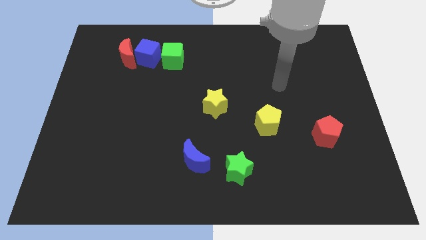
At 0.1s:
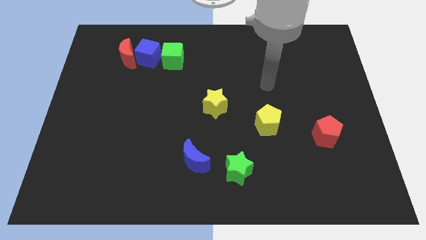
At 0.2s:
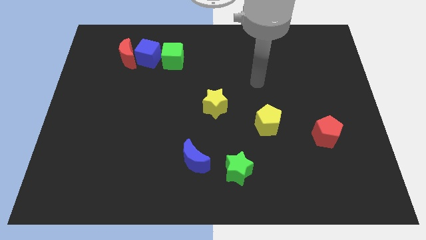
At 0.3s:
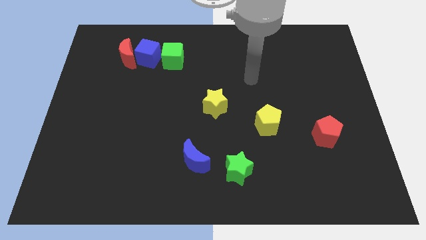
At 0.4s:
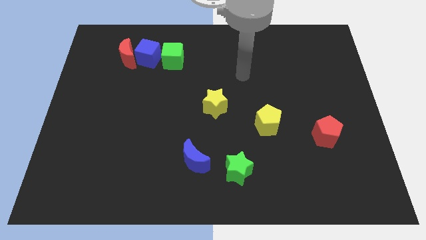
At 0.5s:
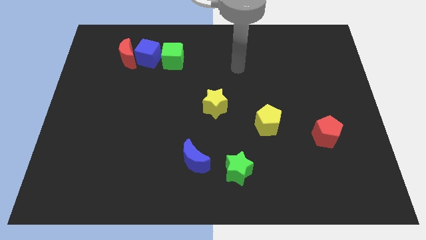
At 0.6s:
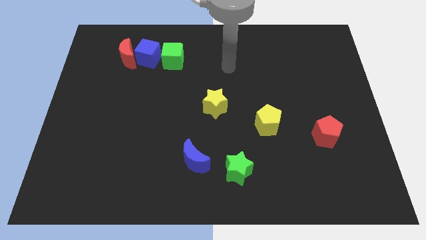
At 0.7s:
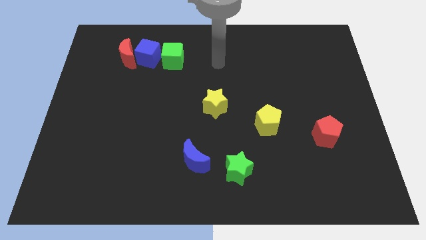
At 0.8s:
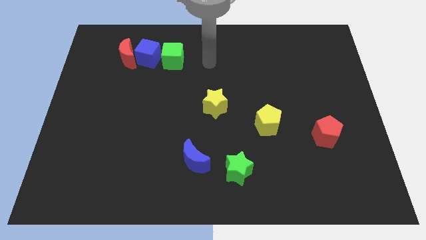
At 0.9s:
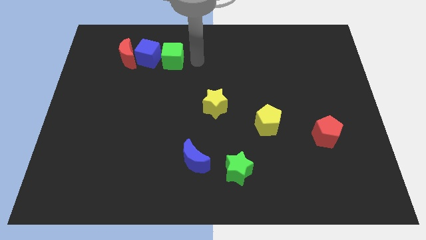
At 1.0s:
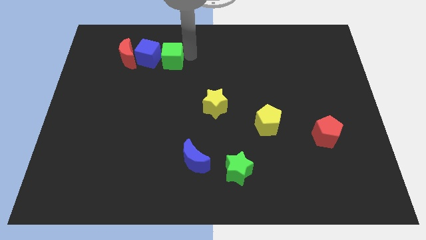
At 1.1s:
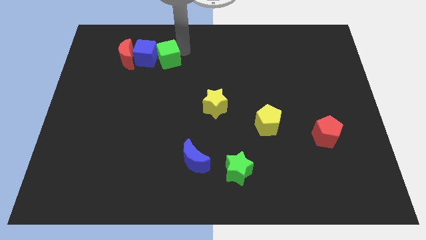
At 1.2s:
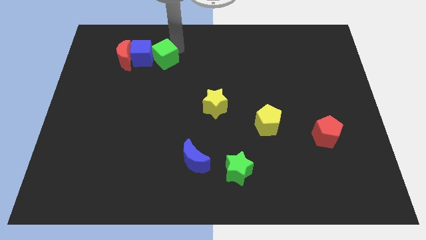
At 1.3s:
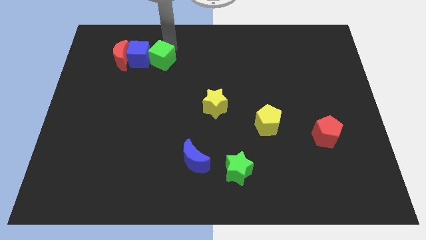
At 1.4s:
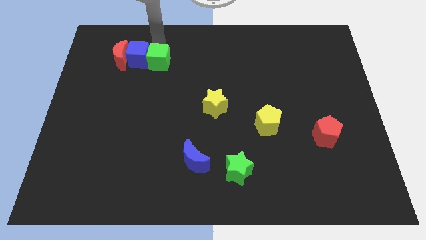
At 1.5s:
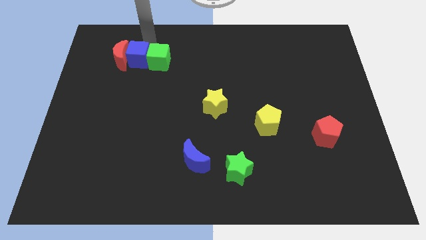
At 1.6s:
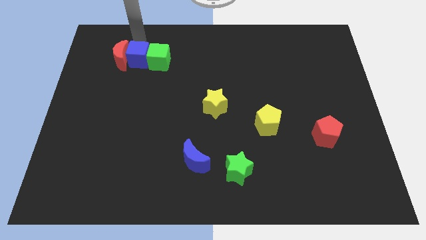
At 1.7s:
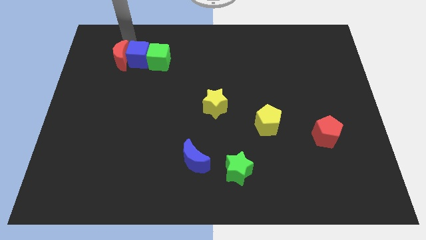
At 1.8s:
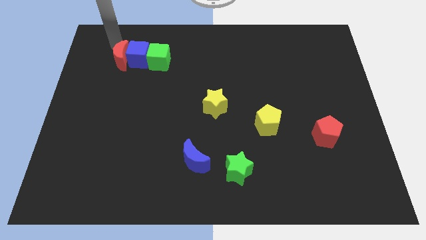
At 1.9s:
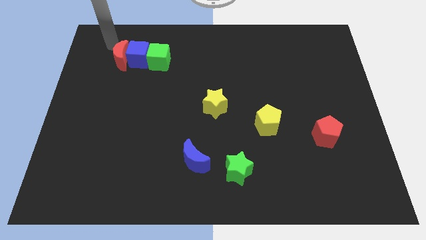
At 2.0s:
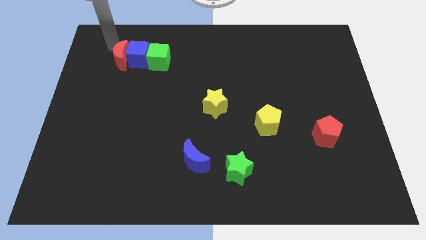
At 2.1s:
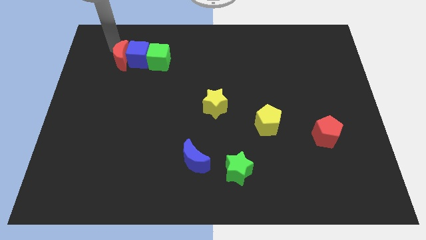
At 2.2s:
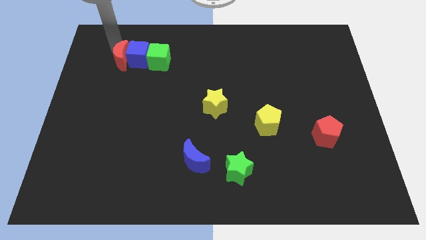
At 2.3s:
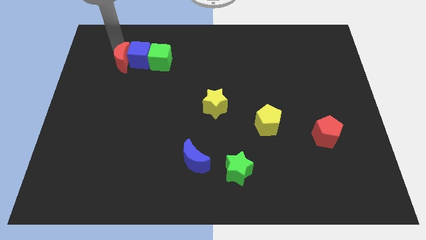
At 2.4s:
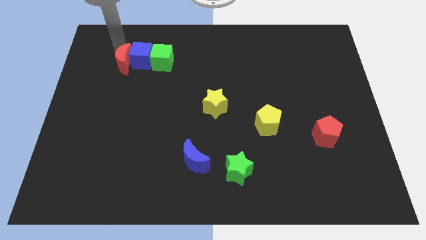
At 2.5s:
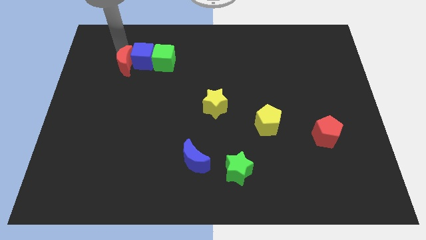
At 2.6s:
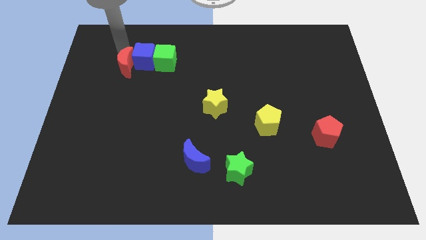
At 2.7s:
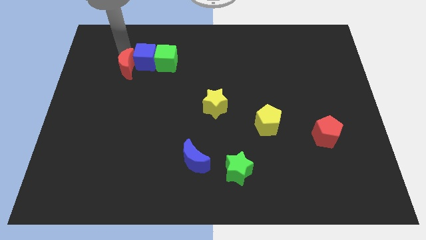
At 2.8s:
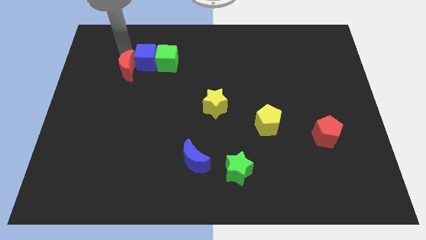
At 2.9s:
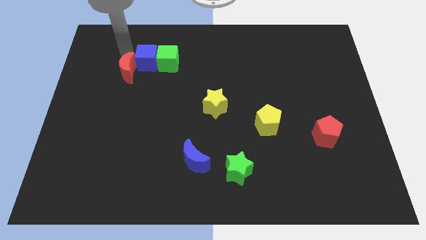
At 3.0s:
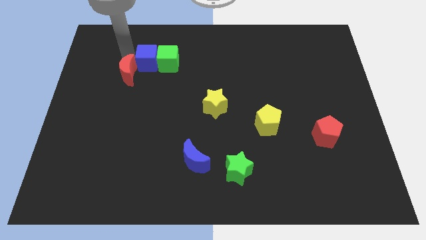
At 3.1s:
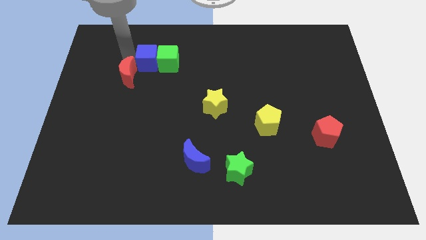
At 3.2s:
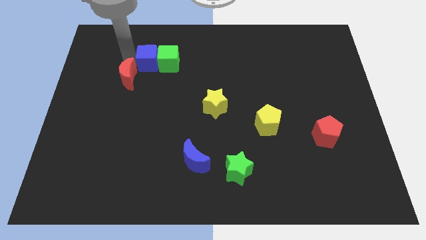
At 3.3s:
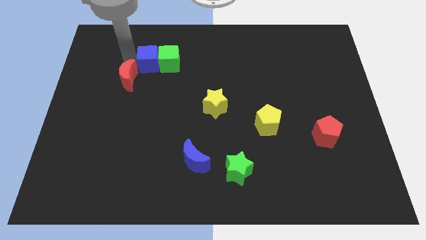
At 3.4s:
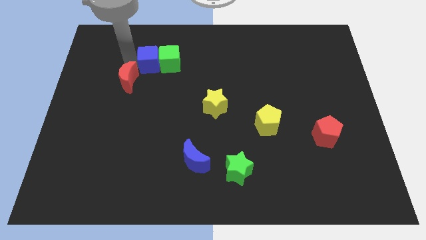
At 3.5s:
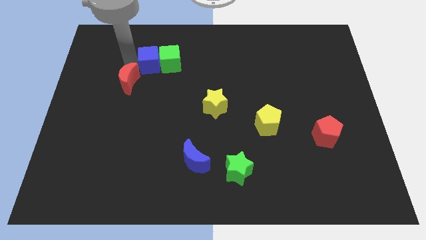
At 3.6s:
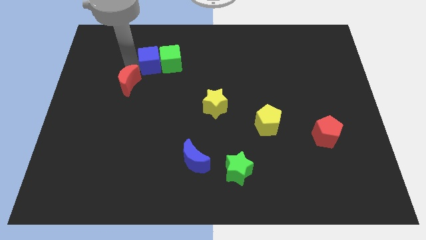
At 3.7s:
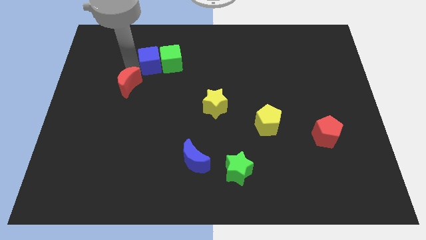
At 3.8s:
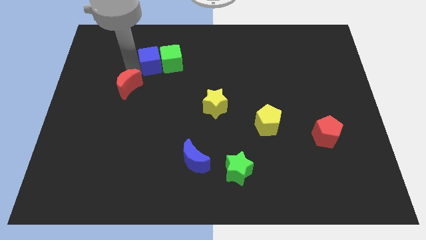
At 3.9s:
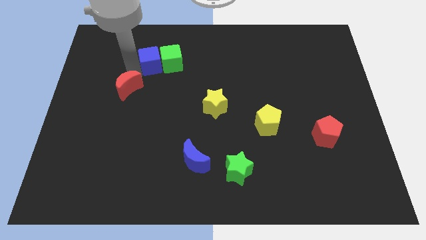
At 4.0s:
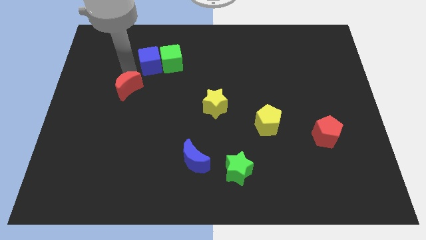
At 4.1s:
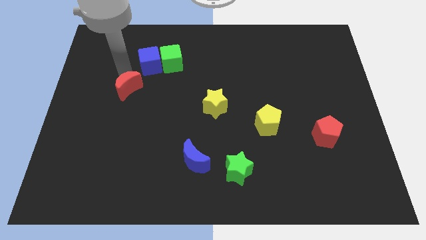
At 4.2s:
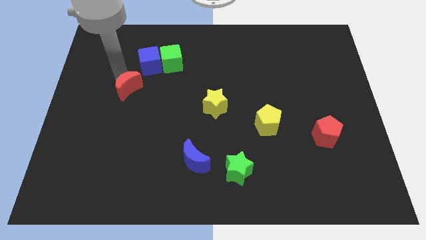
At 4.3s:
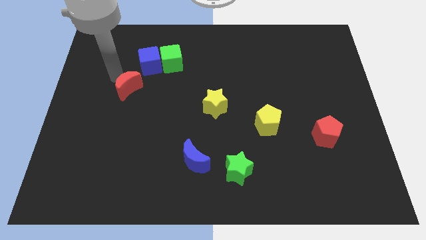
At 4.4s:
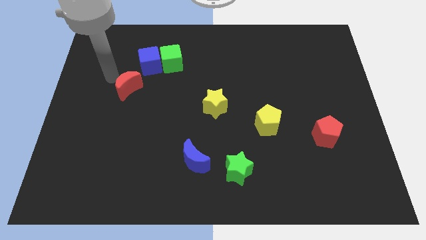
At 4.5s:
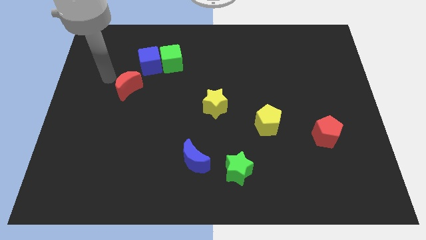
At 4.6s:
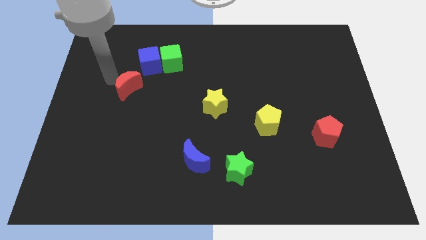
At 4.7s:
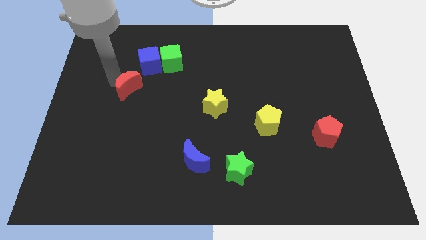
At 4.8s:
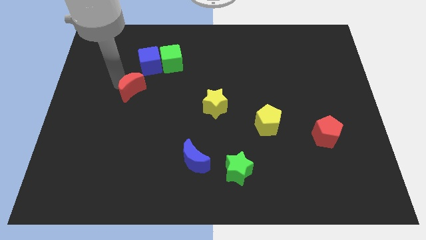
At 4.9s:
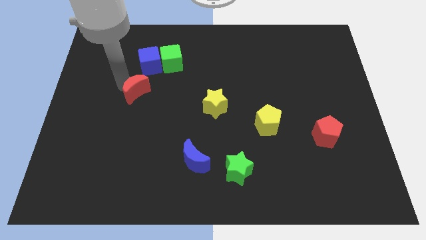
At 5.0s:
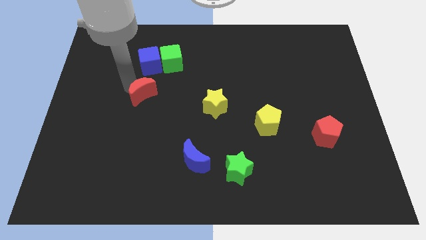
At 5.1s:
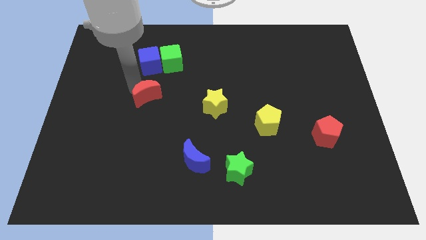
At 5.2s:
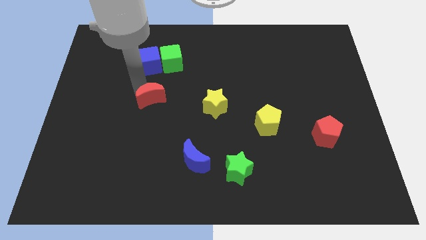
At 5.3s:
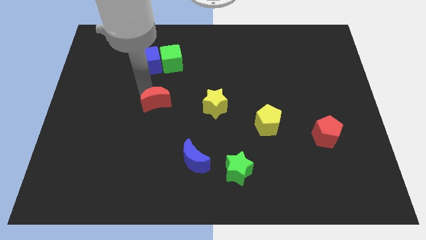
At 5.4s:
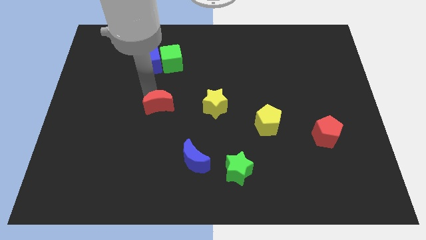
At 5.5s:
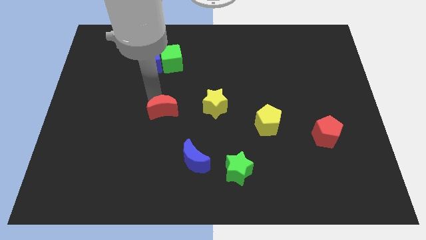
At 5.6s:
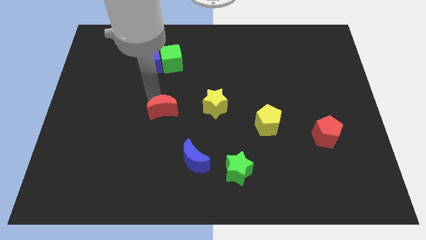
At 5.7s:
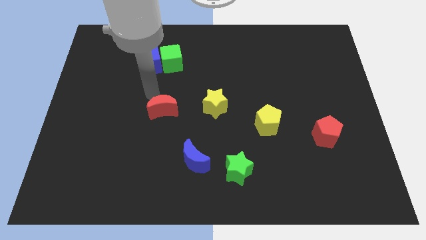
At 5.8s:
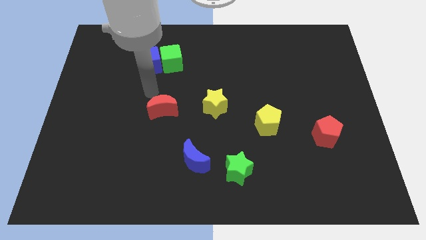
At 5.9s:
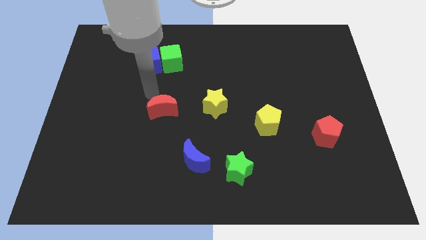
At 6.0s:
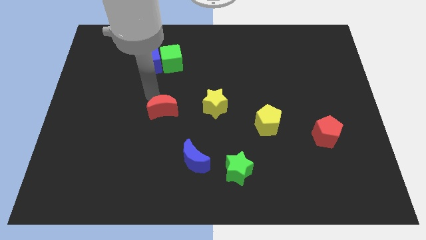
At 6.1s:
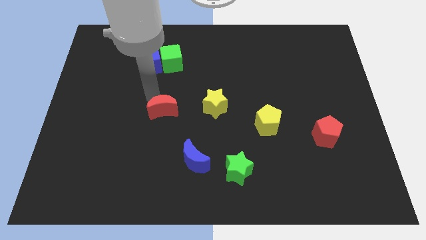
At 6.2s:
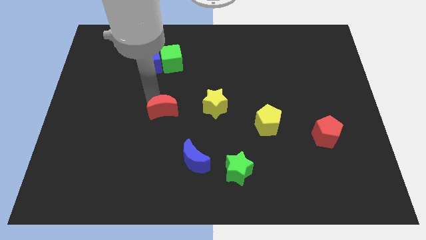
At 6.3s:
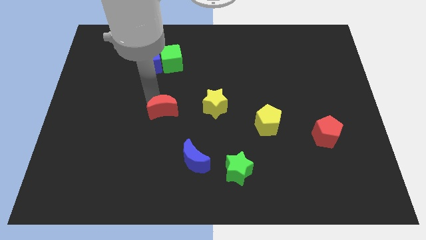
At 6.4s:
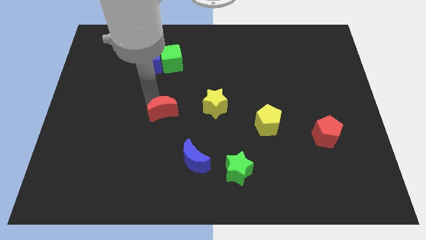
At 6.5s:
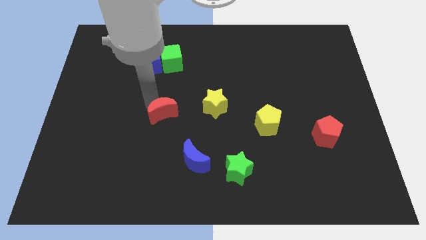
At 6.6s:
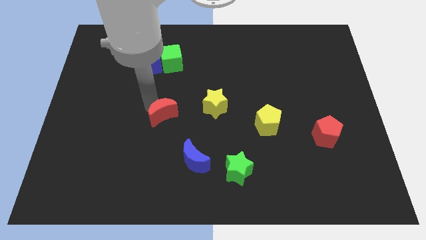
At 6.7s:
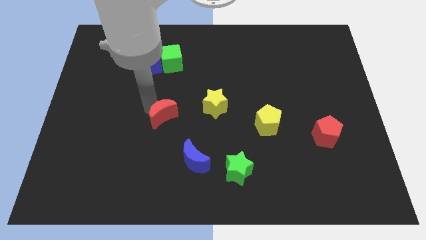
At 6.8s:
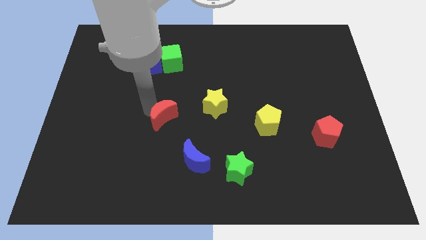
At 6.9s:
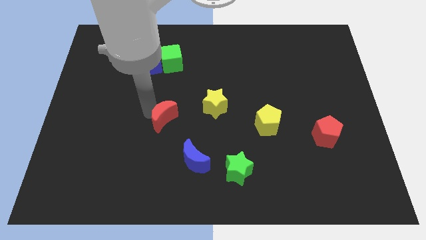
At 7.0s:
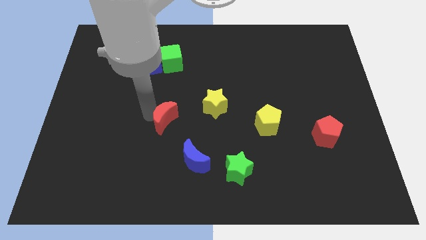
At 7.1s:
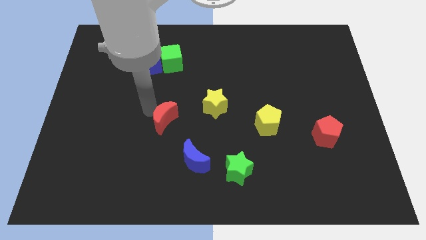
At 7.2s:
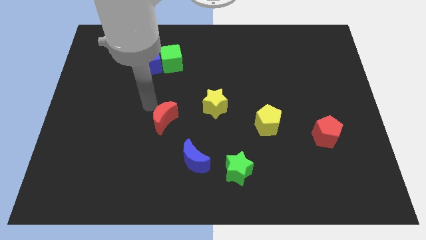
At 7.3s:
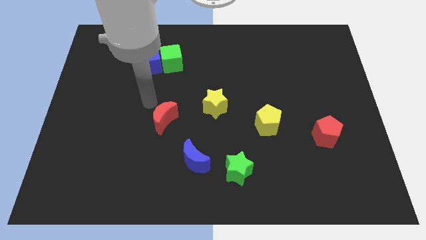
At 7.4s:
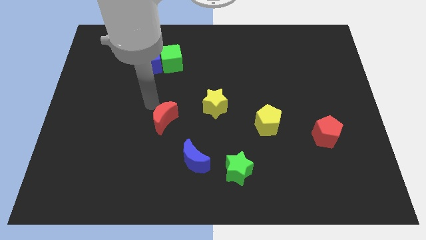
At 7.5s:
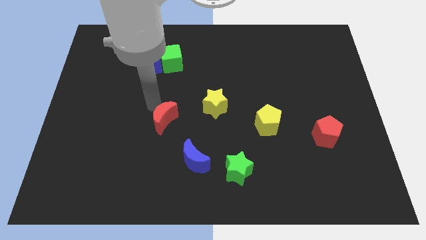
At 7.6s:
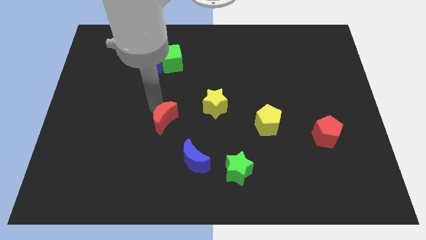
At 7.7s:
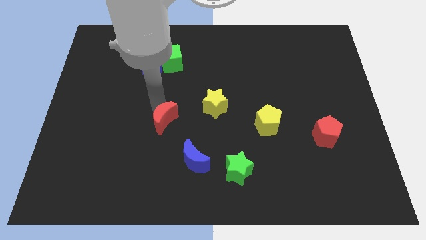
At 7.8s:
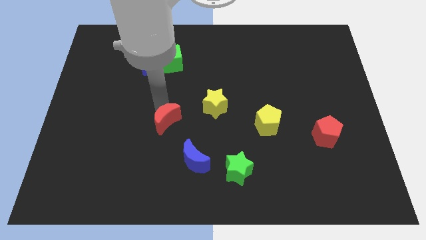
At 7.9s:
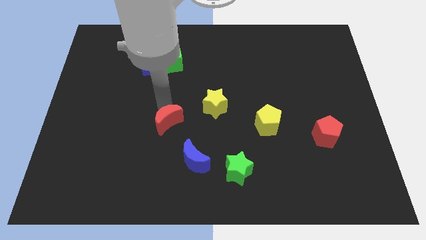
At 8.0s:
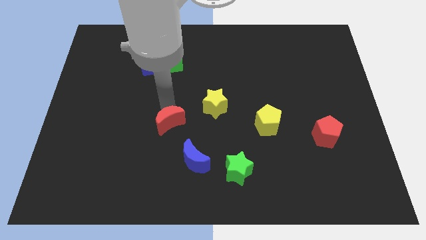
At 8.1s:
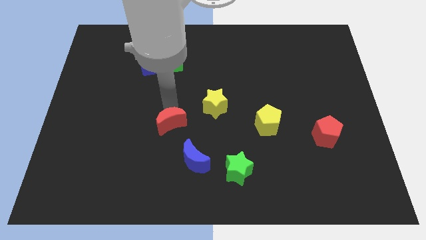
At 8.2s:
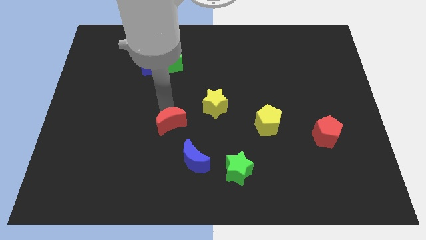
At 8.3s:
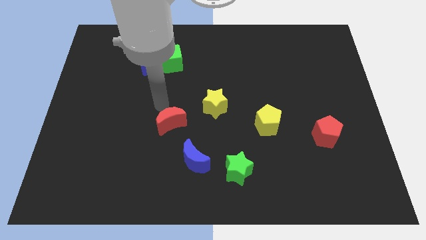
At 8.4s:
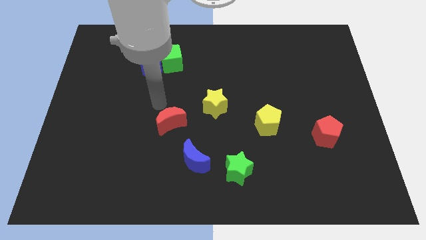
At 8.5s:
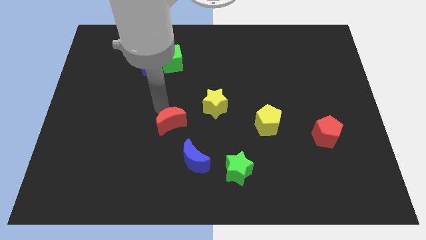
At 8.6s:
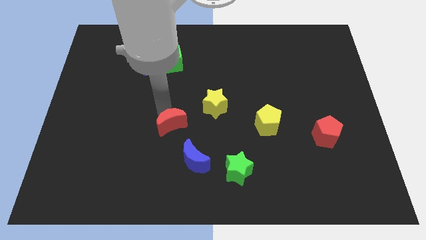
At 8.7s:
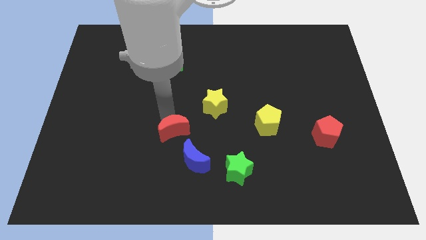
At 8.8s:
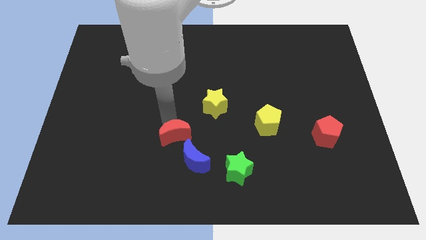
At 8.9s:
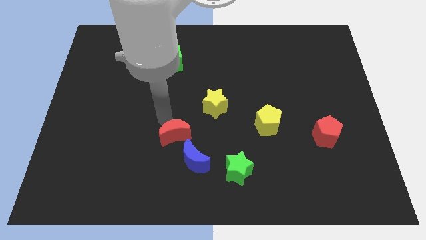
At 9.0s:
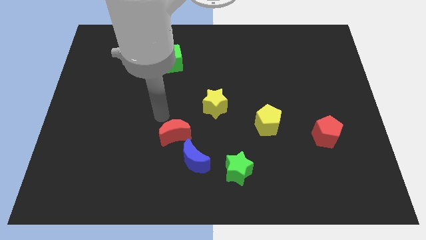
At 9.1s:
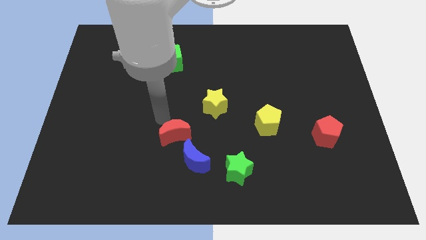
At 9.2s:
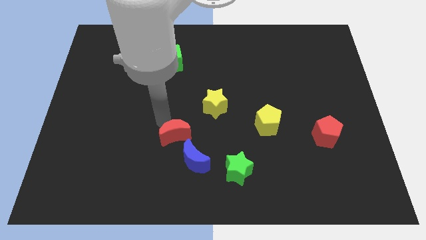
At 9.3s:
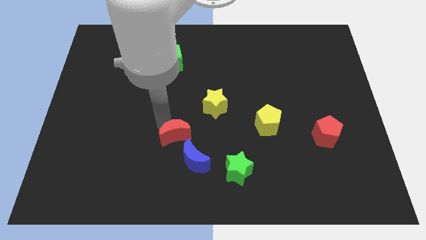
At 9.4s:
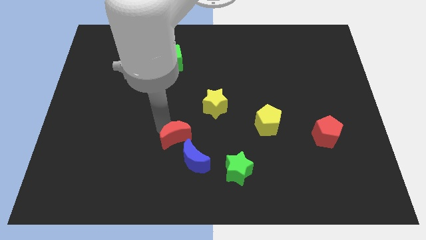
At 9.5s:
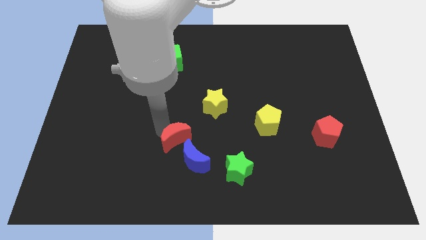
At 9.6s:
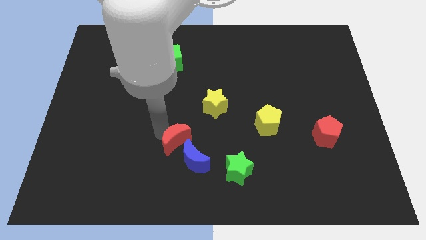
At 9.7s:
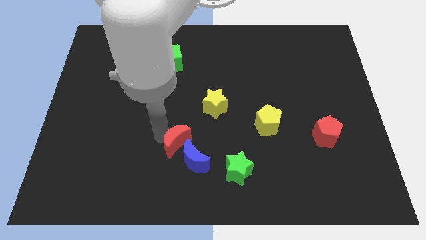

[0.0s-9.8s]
push the red moon close to the blue moon
